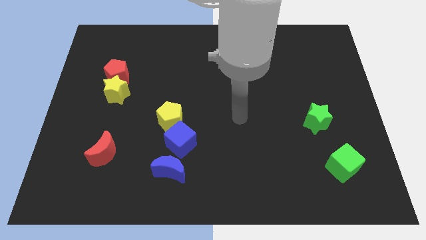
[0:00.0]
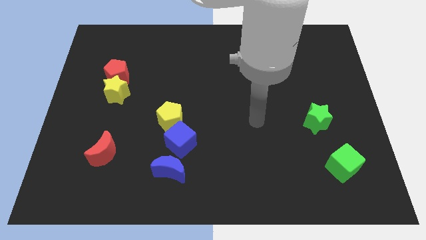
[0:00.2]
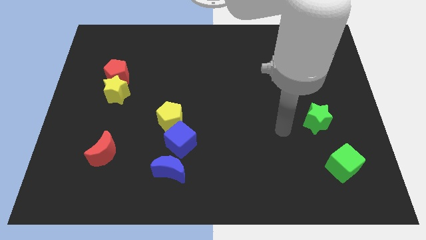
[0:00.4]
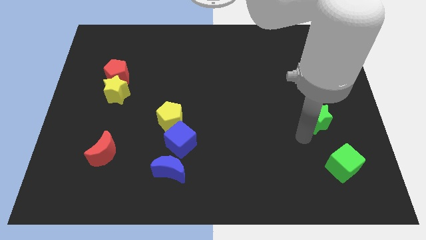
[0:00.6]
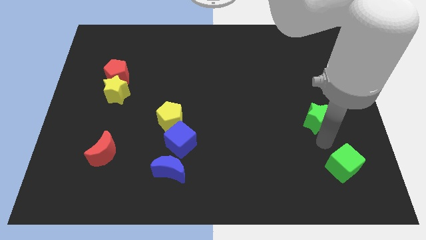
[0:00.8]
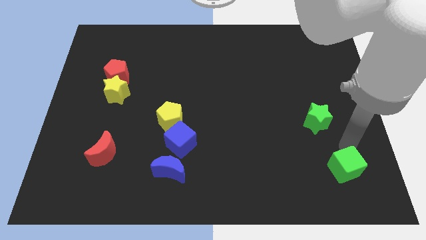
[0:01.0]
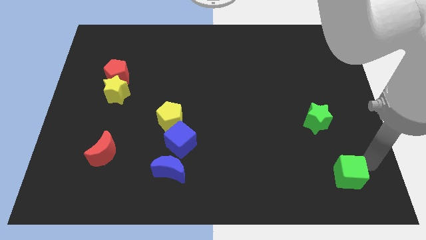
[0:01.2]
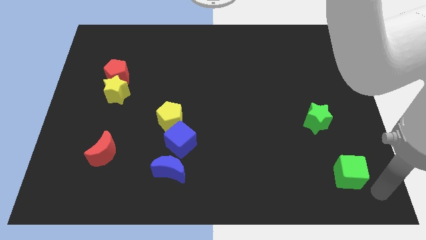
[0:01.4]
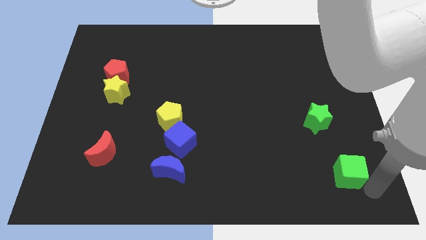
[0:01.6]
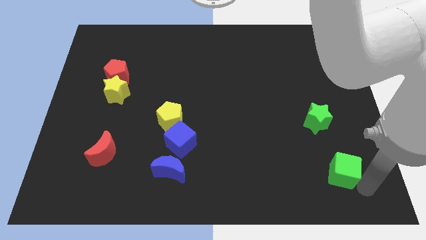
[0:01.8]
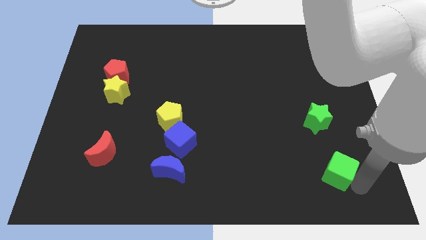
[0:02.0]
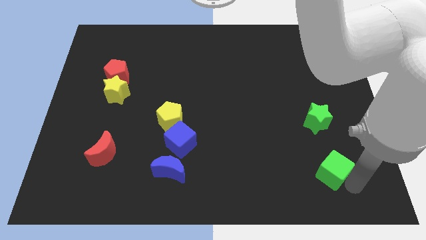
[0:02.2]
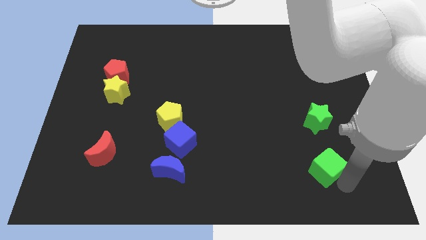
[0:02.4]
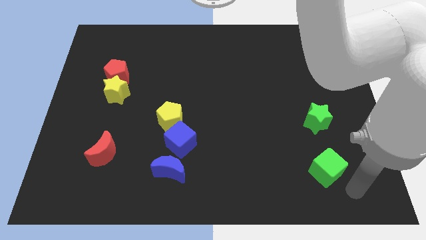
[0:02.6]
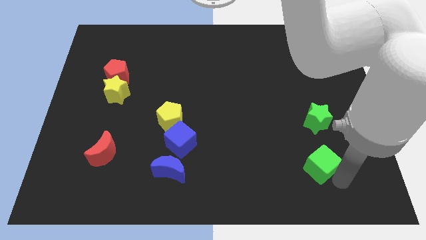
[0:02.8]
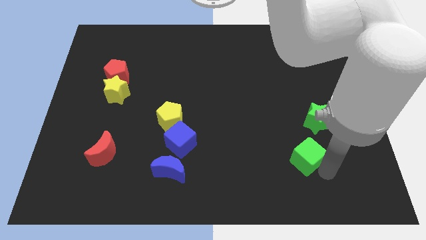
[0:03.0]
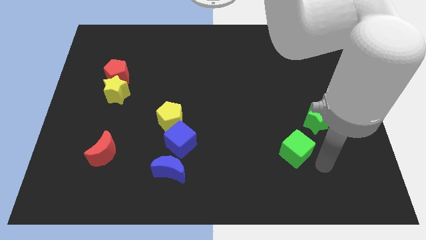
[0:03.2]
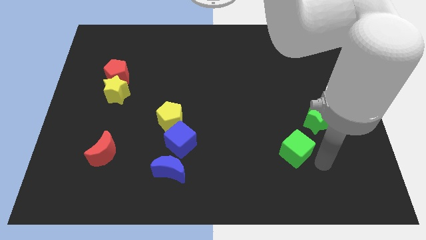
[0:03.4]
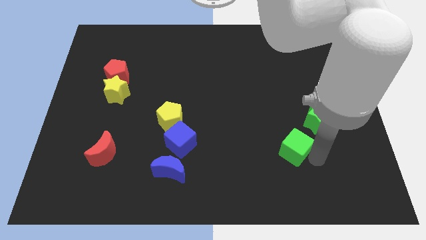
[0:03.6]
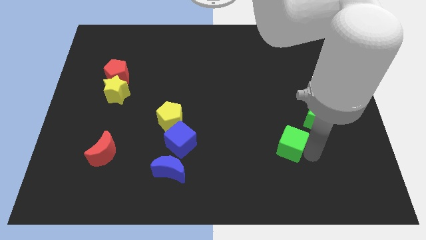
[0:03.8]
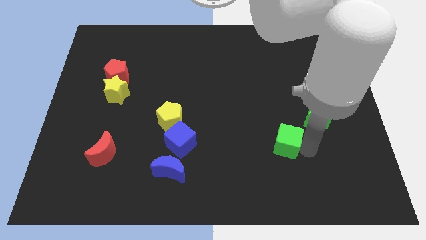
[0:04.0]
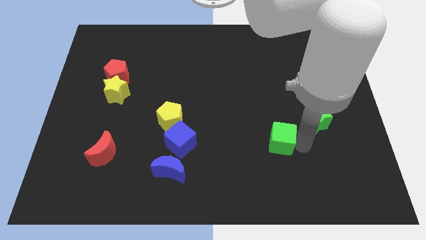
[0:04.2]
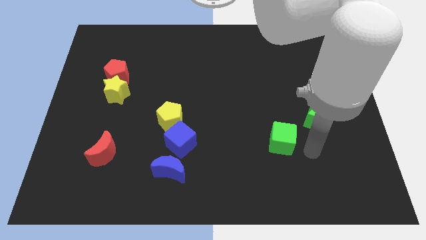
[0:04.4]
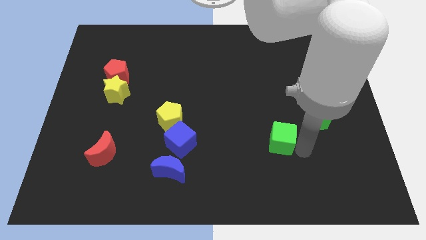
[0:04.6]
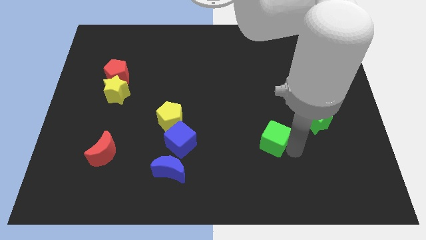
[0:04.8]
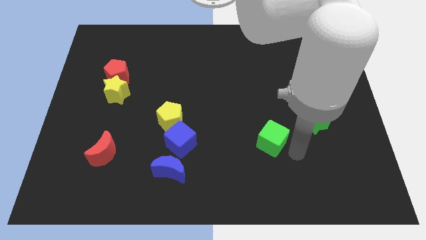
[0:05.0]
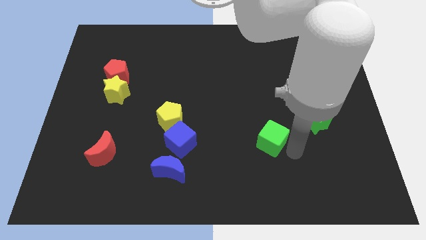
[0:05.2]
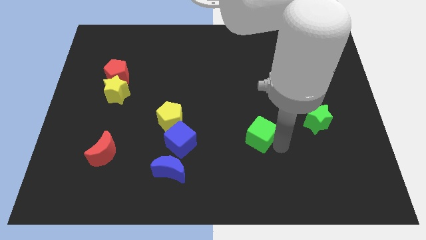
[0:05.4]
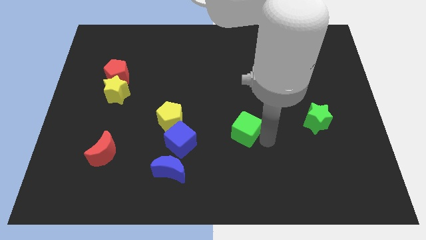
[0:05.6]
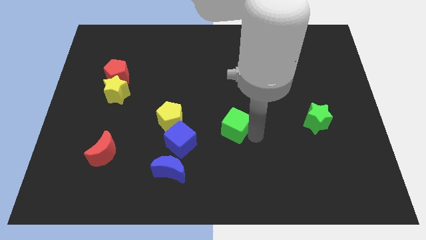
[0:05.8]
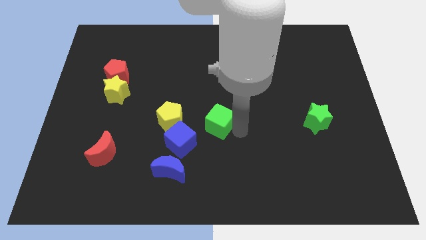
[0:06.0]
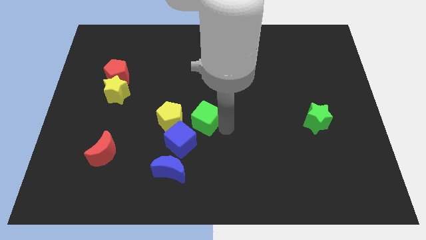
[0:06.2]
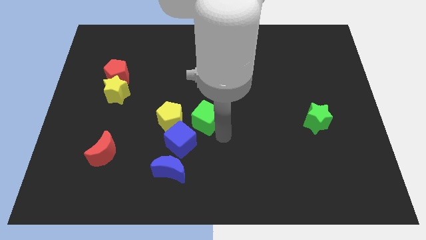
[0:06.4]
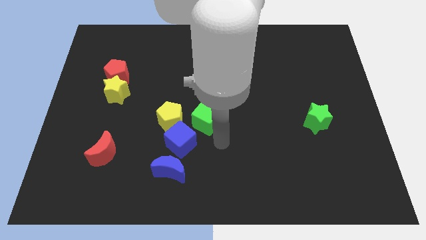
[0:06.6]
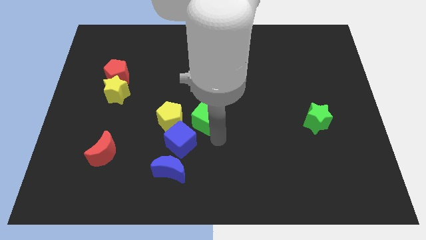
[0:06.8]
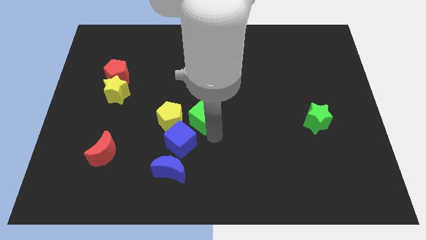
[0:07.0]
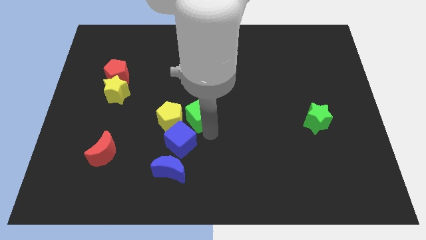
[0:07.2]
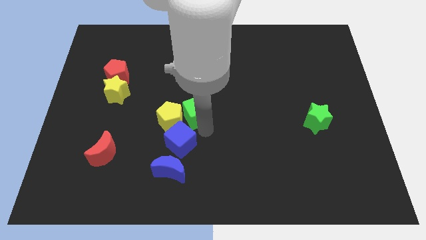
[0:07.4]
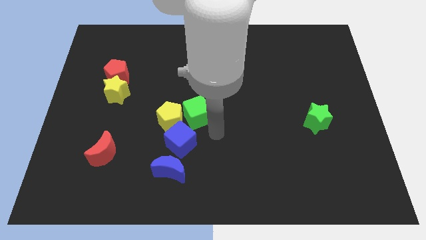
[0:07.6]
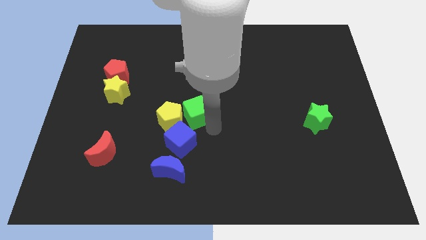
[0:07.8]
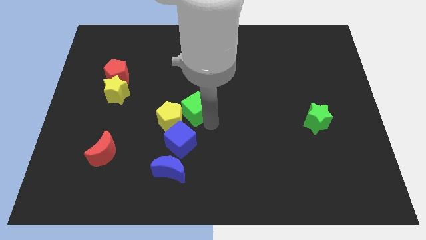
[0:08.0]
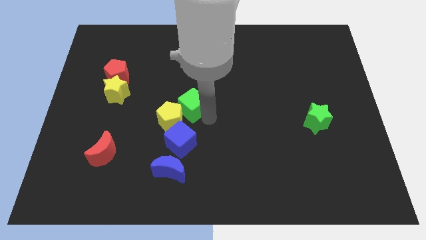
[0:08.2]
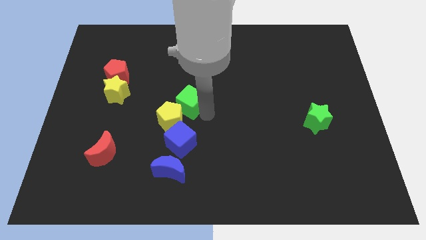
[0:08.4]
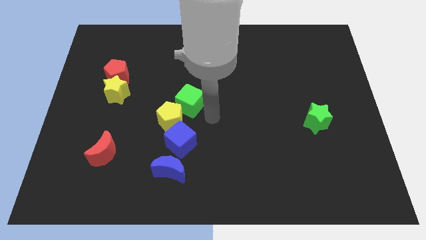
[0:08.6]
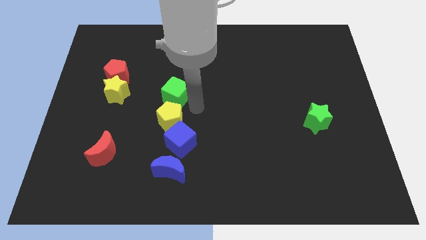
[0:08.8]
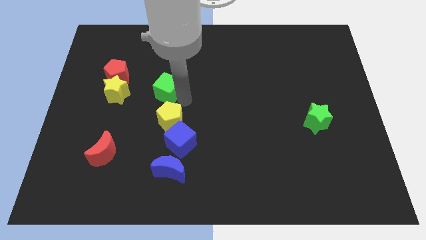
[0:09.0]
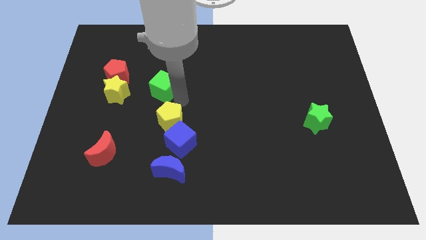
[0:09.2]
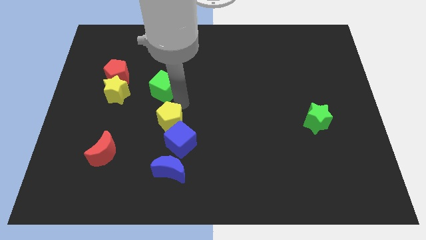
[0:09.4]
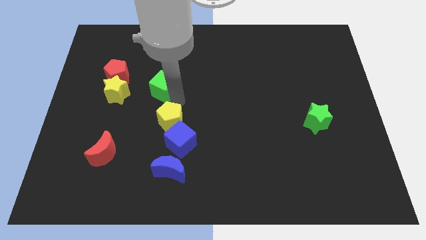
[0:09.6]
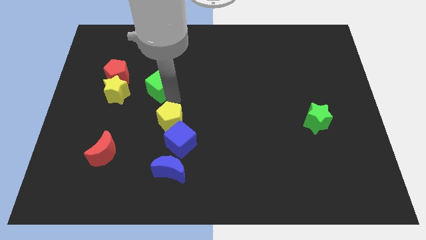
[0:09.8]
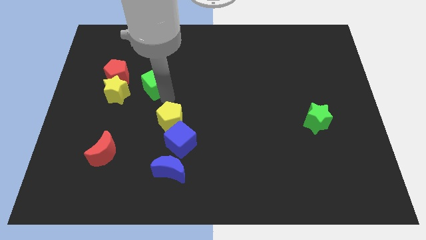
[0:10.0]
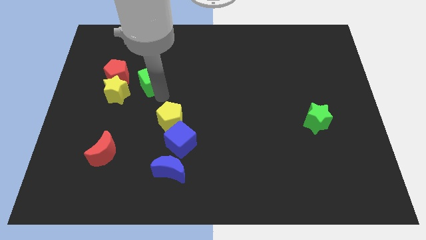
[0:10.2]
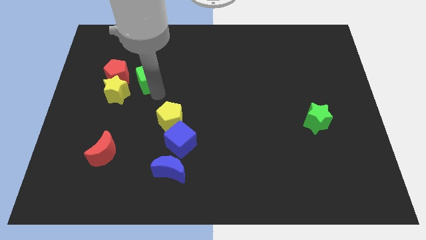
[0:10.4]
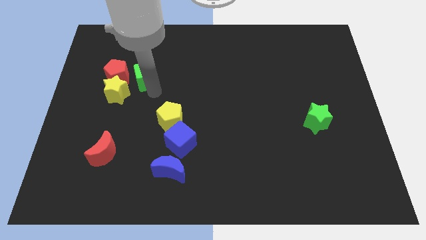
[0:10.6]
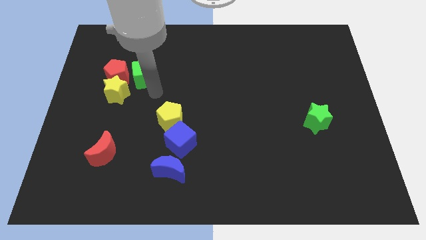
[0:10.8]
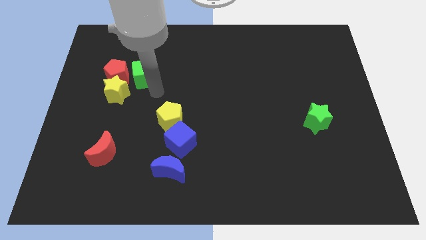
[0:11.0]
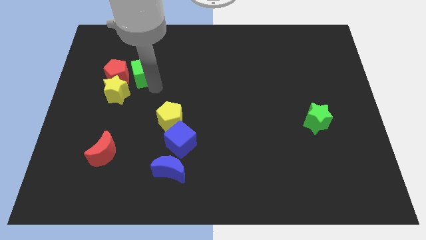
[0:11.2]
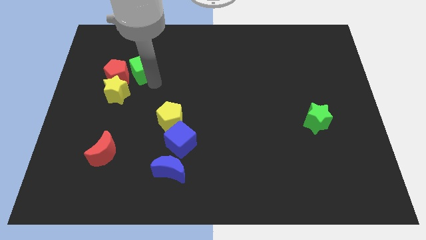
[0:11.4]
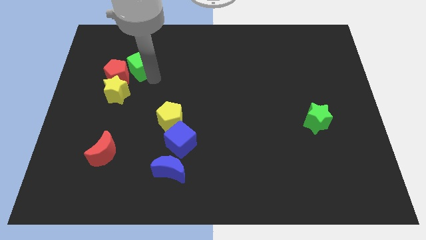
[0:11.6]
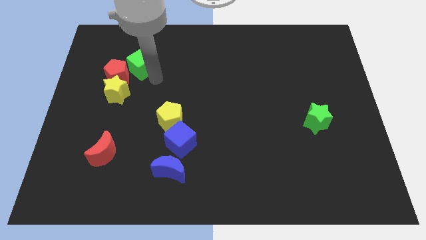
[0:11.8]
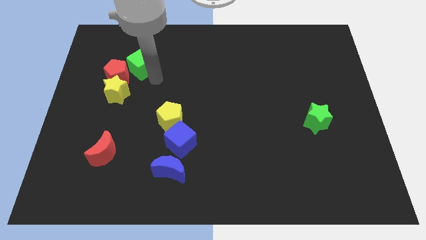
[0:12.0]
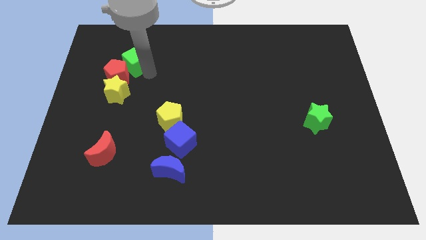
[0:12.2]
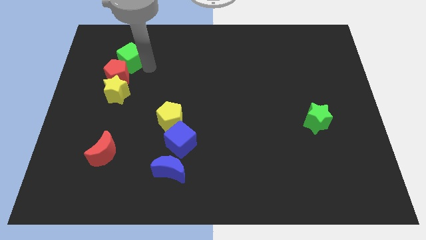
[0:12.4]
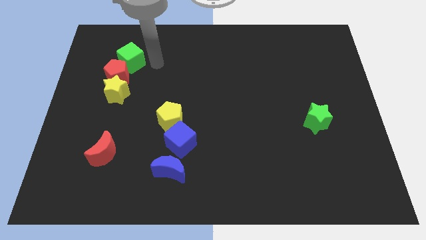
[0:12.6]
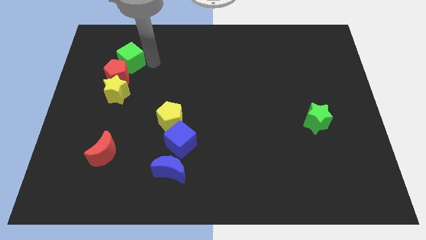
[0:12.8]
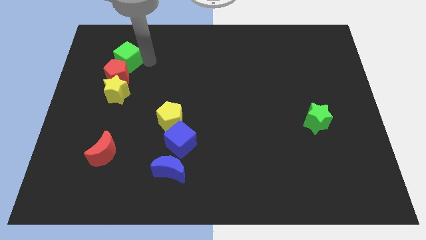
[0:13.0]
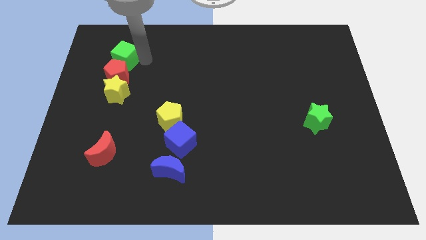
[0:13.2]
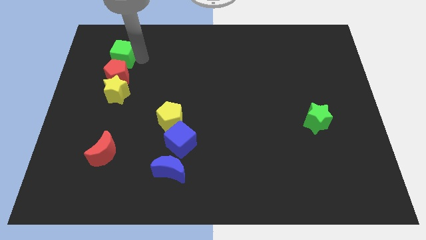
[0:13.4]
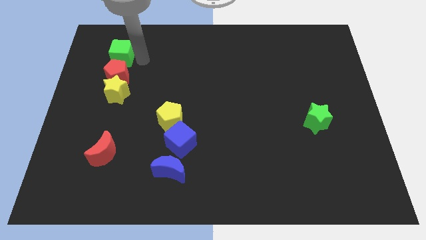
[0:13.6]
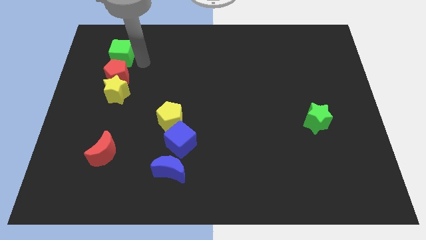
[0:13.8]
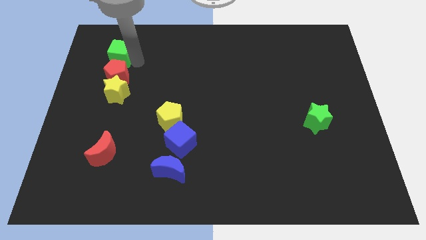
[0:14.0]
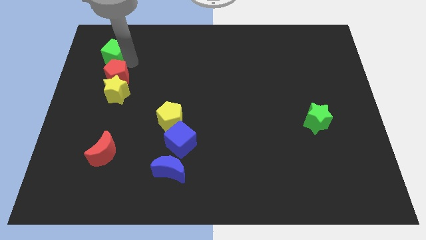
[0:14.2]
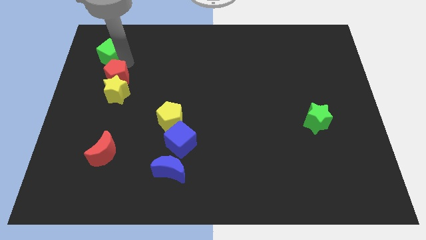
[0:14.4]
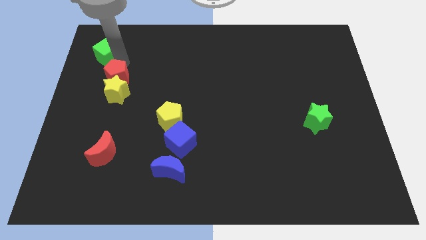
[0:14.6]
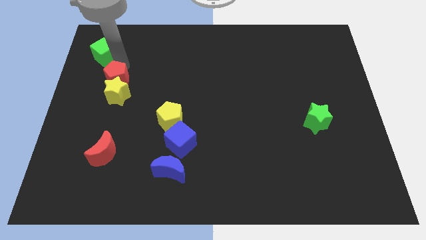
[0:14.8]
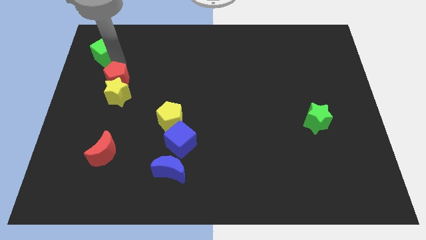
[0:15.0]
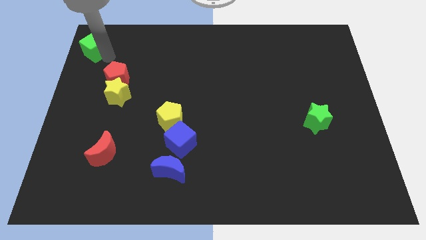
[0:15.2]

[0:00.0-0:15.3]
put the green cube to the upper left corner
